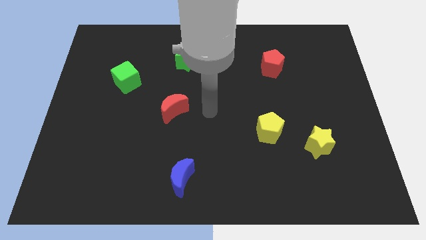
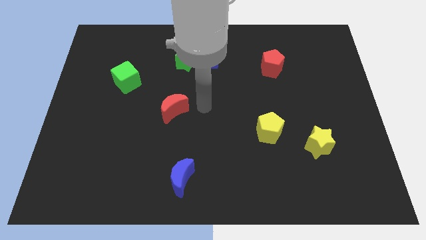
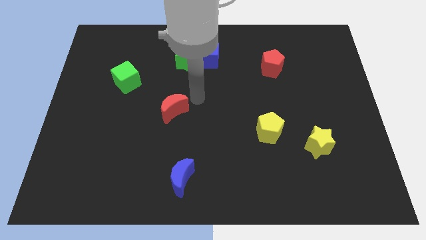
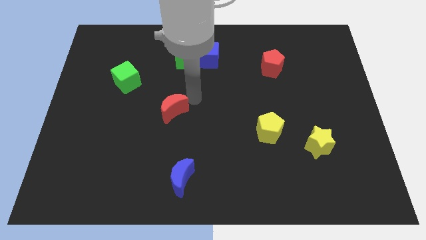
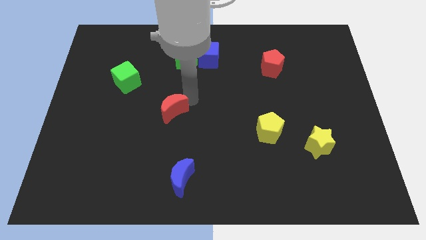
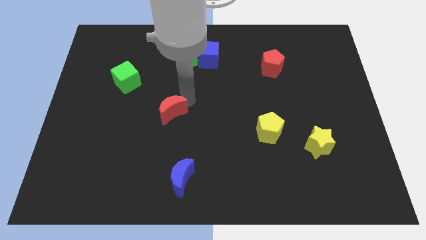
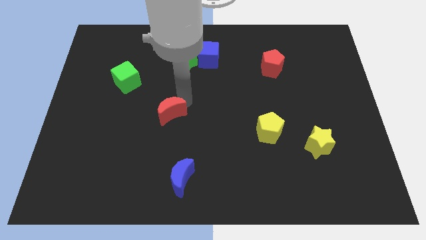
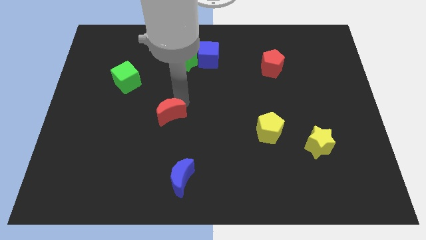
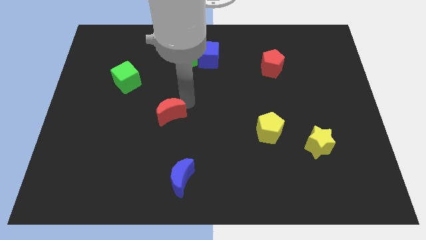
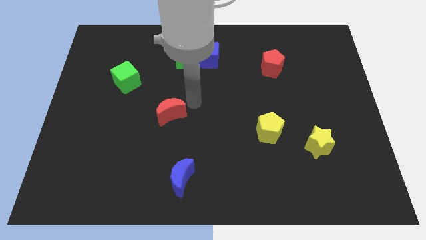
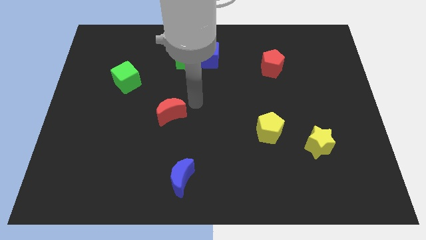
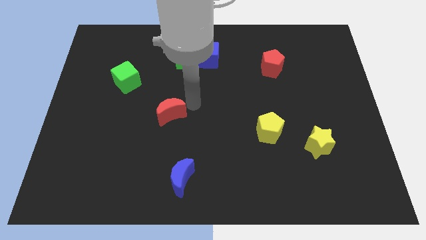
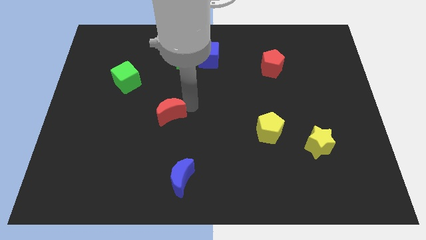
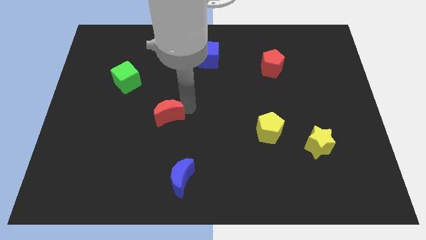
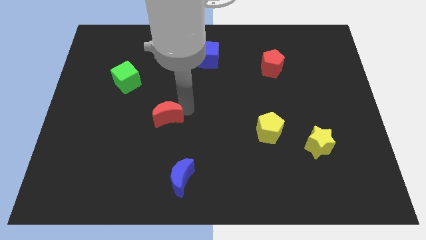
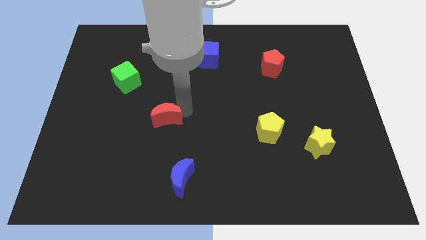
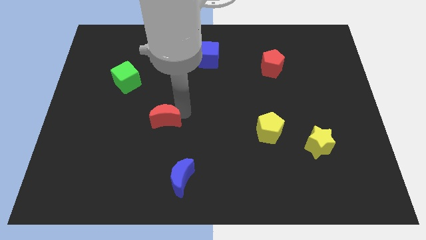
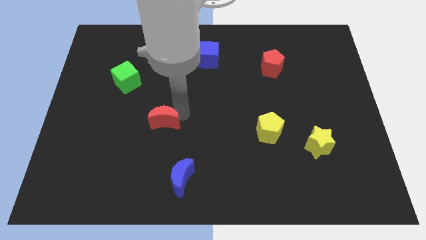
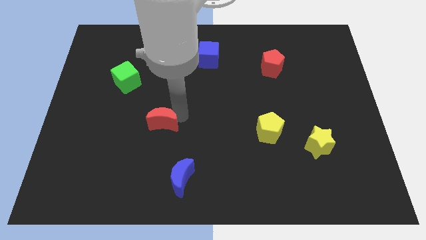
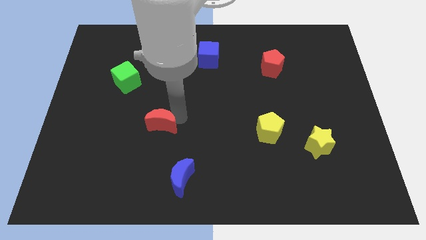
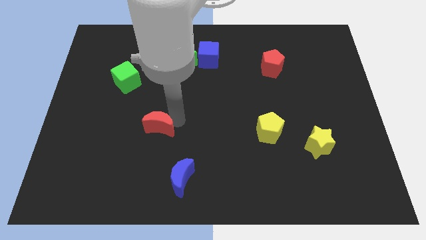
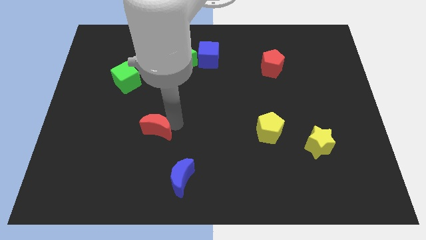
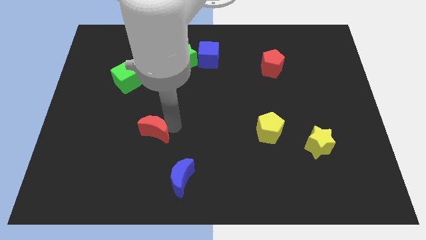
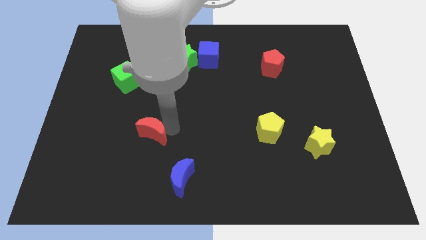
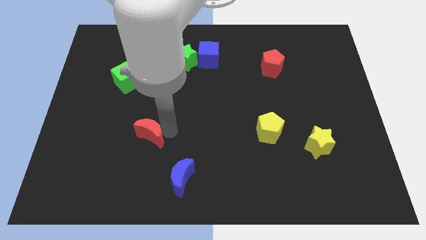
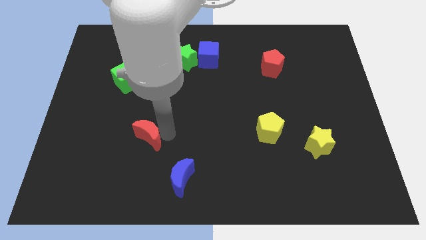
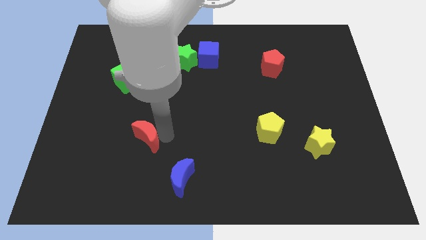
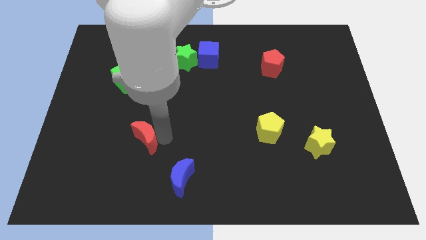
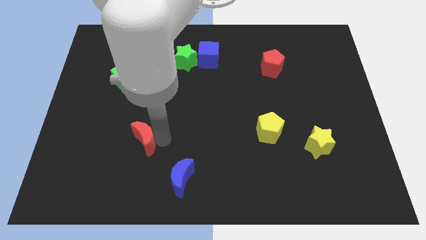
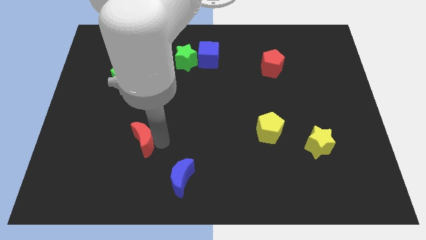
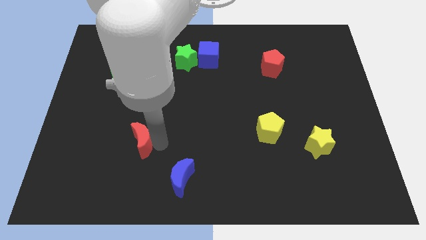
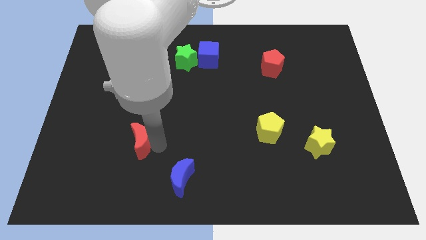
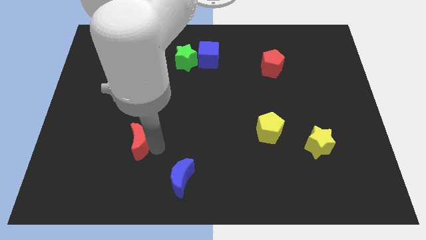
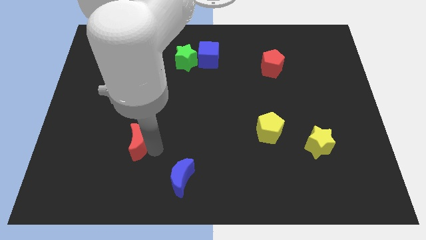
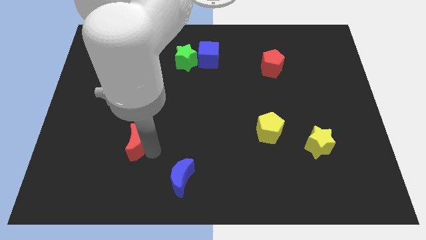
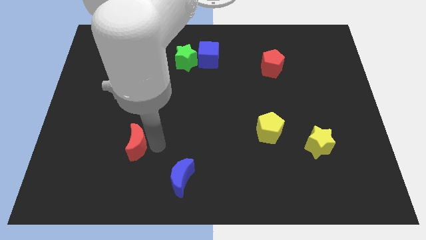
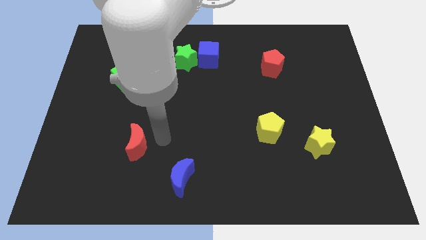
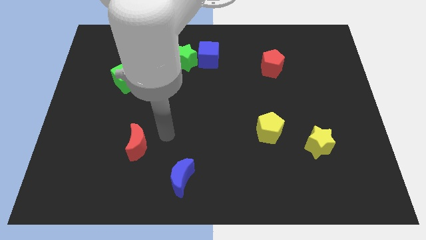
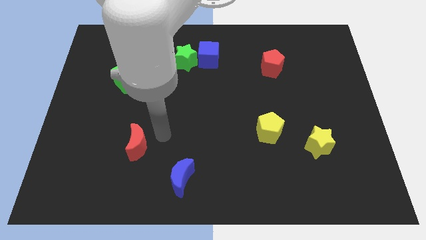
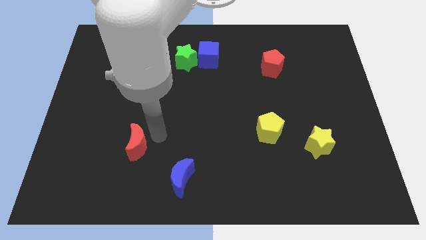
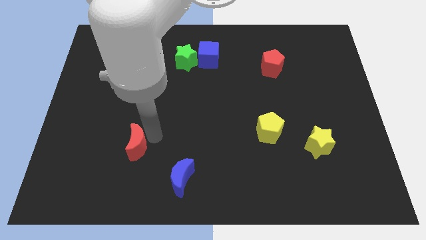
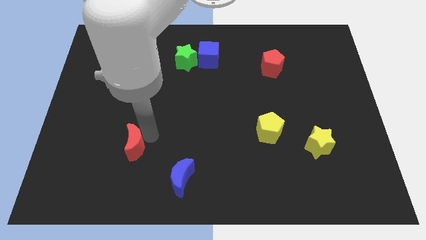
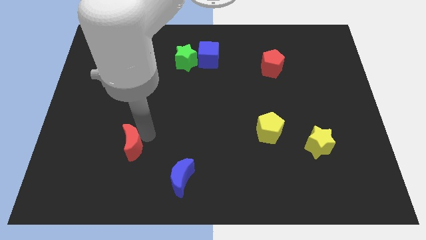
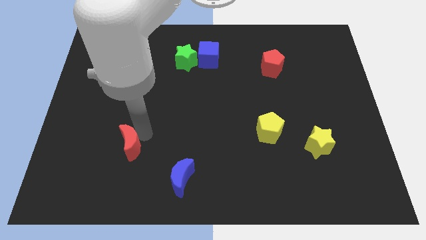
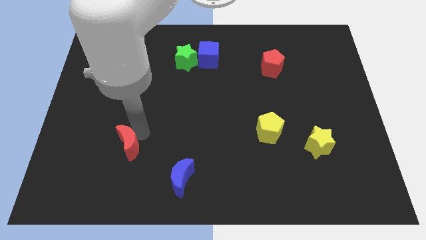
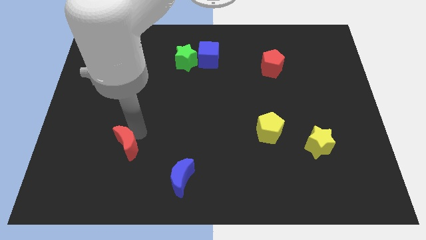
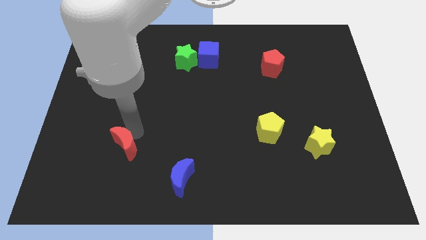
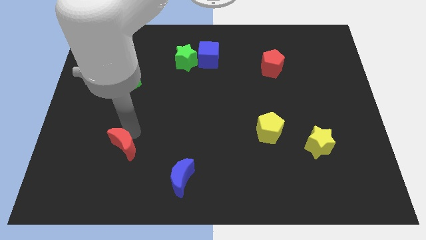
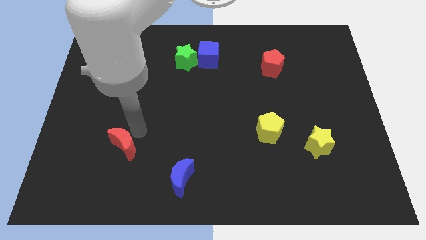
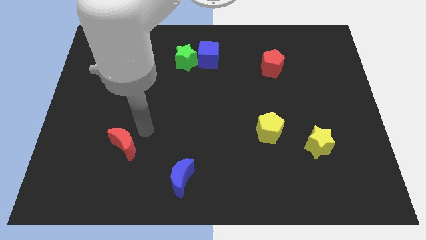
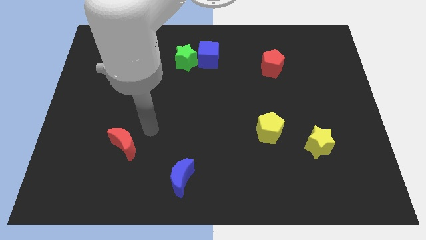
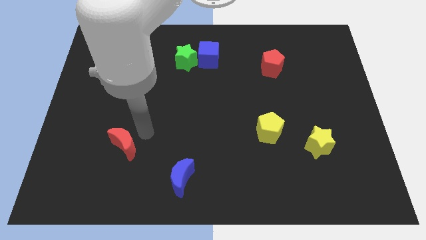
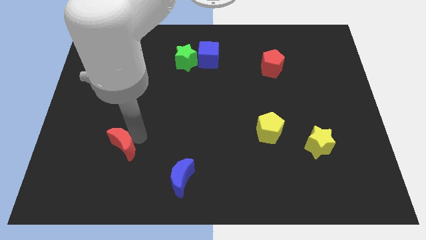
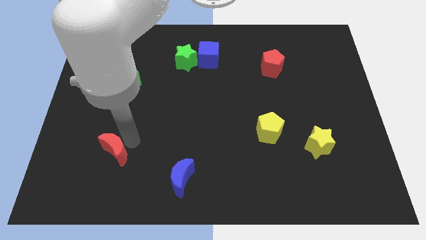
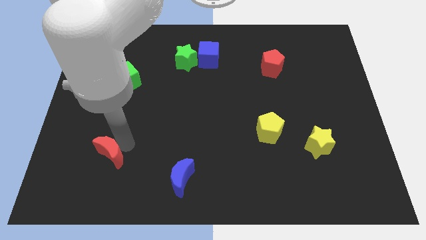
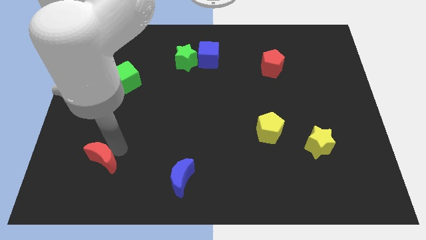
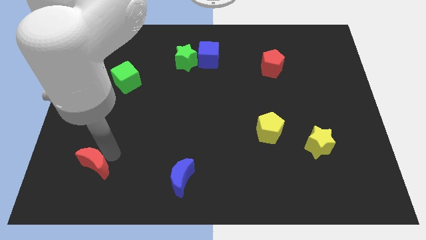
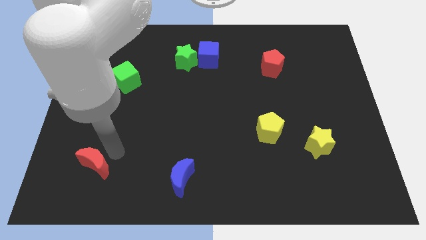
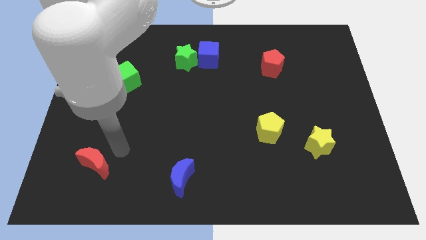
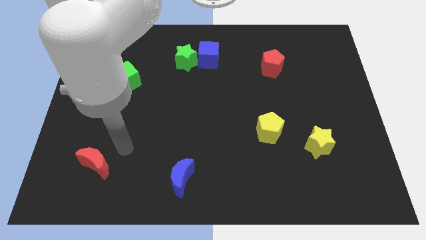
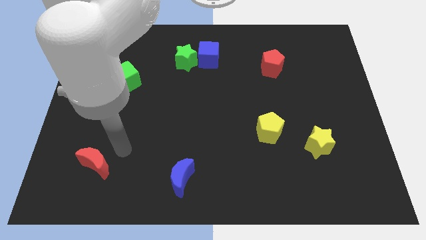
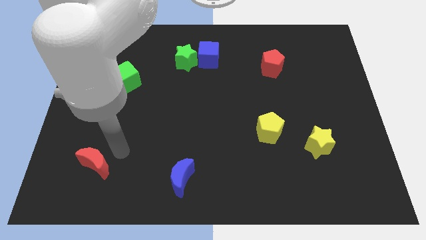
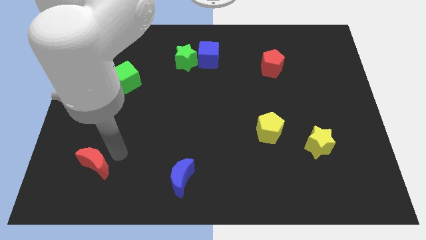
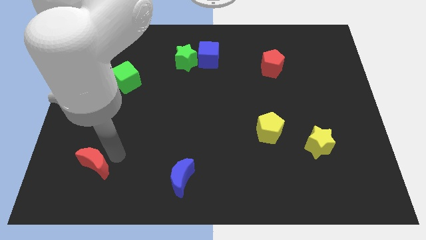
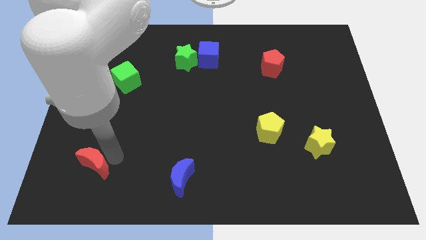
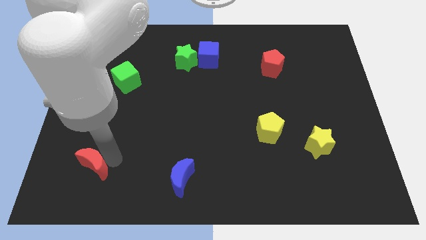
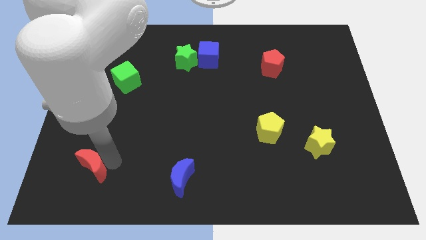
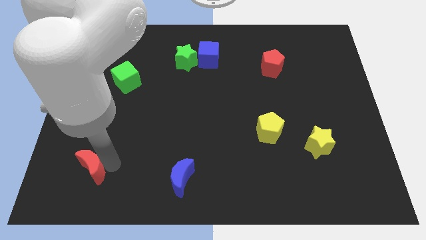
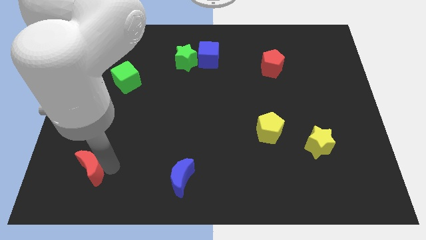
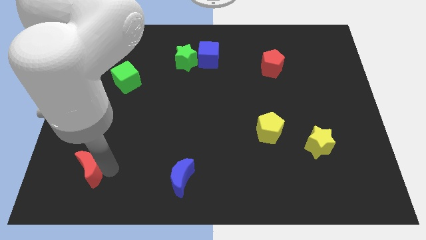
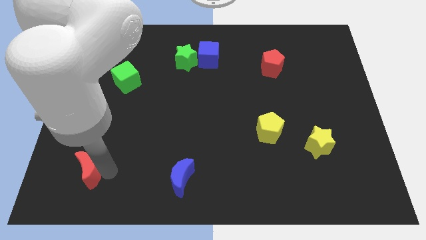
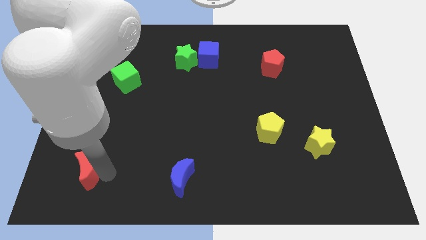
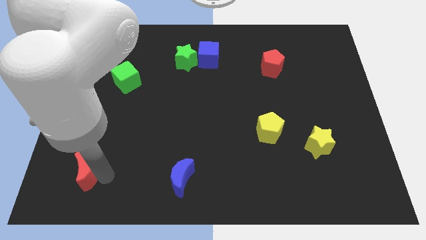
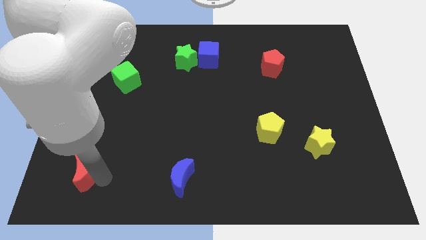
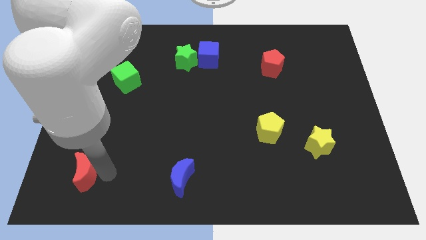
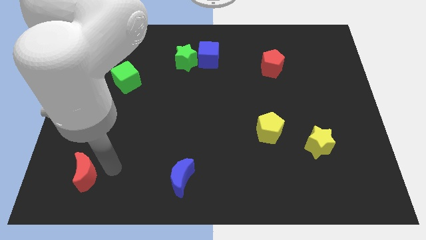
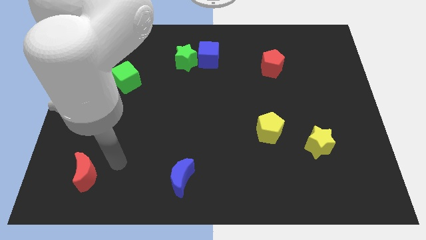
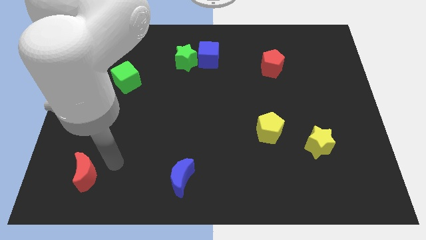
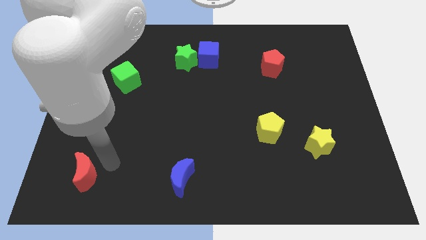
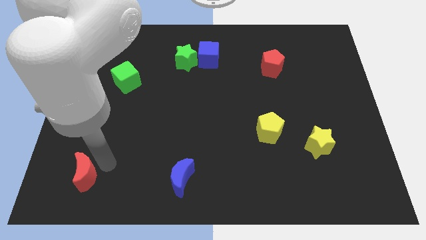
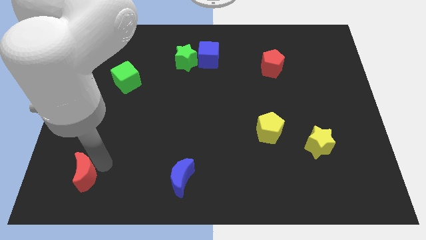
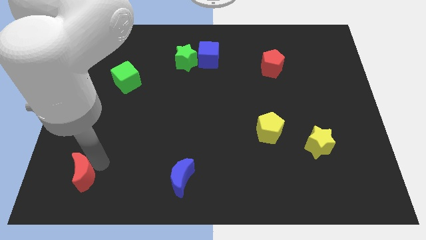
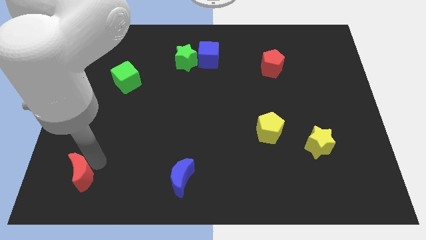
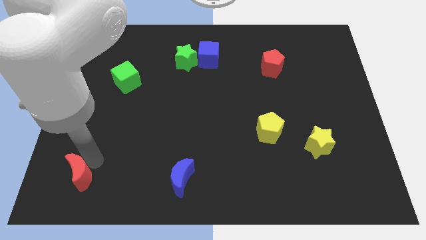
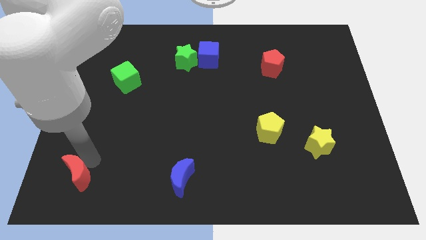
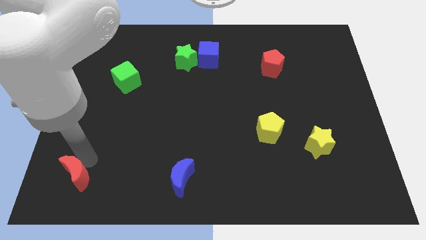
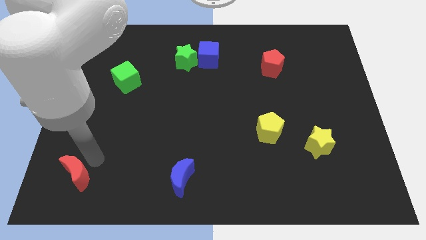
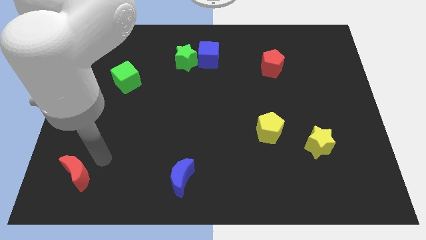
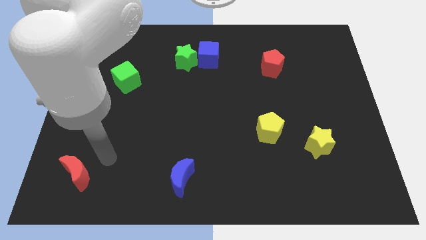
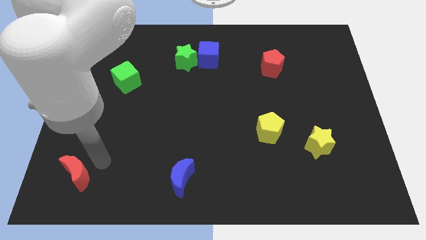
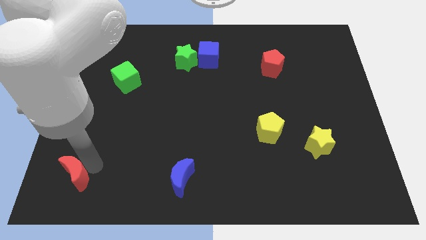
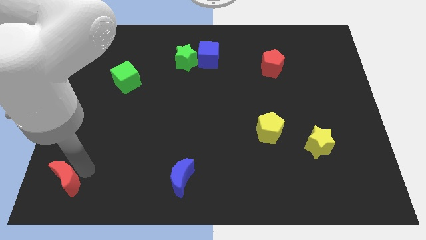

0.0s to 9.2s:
slide the red moon to the bottom left
